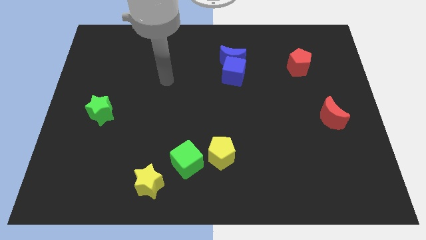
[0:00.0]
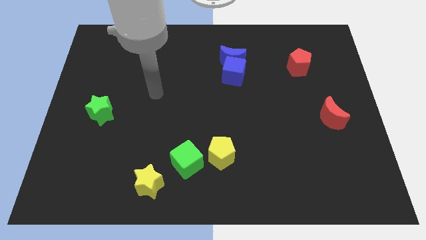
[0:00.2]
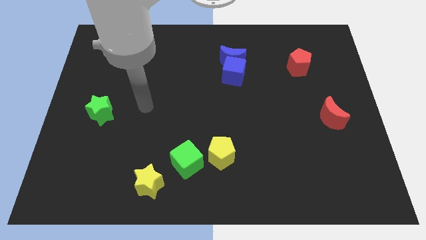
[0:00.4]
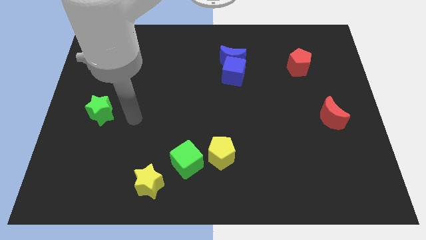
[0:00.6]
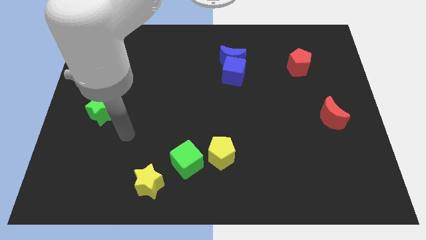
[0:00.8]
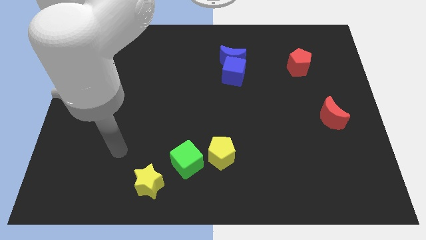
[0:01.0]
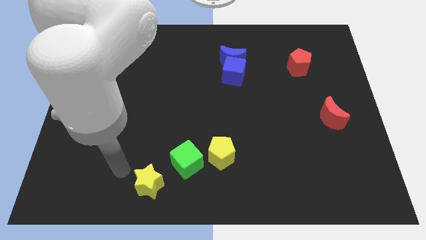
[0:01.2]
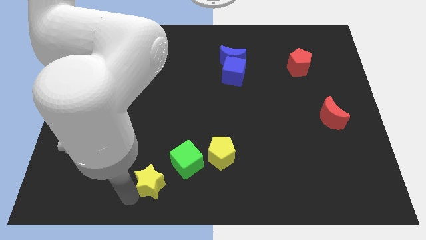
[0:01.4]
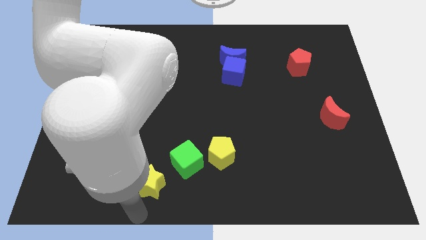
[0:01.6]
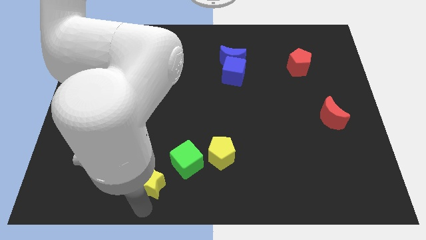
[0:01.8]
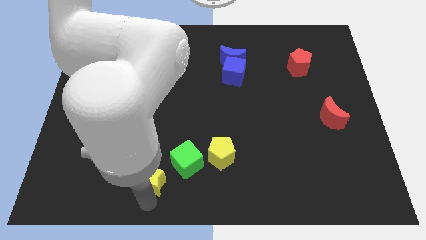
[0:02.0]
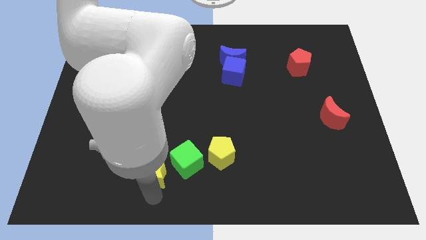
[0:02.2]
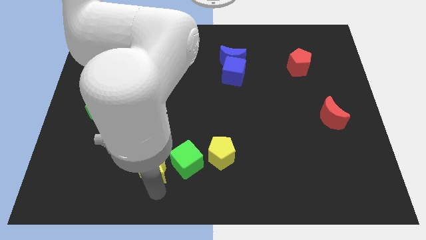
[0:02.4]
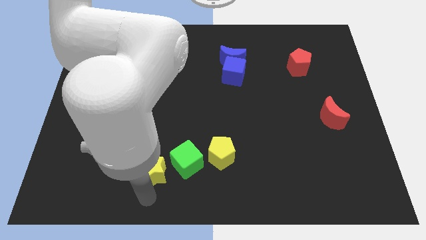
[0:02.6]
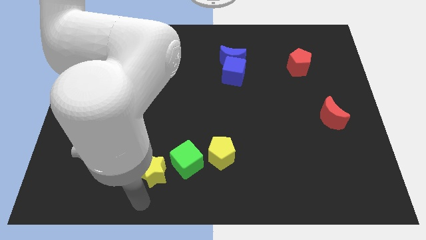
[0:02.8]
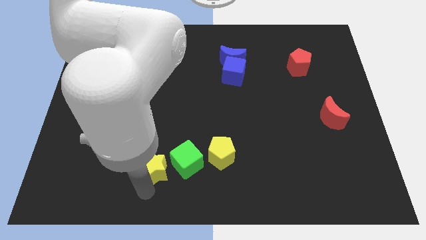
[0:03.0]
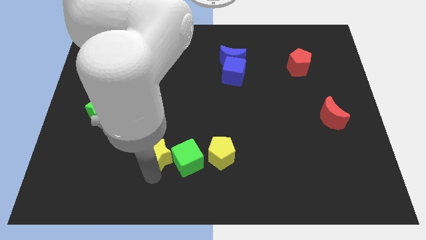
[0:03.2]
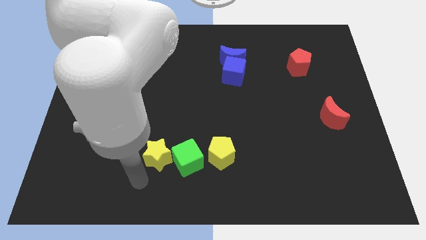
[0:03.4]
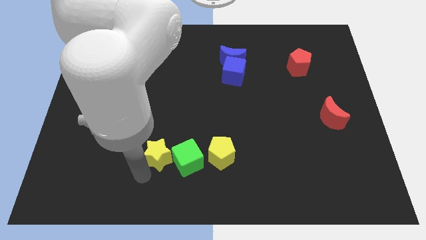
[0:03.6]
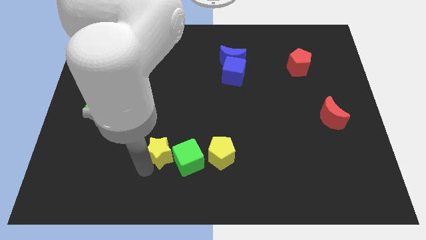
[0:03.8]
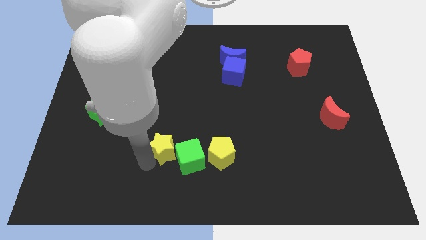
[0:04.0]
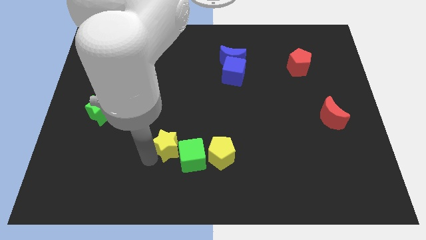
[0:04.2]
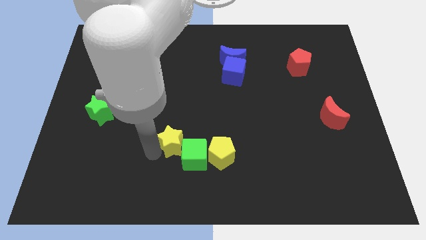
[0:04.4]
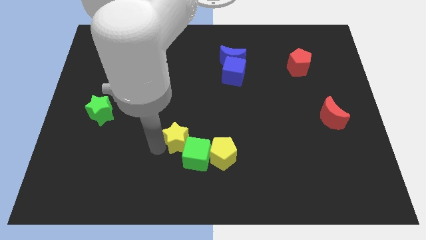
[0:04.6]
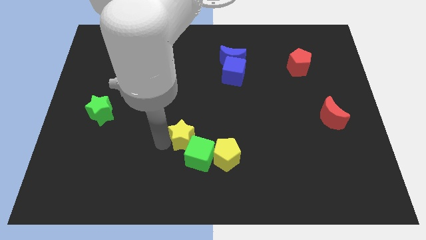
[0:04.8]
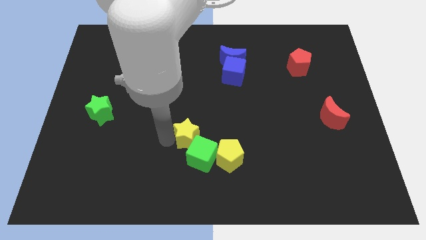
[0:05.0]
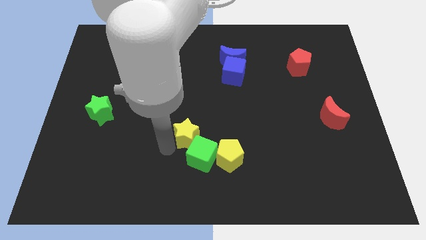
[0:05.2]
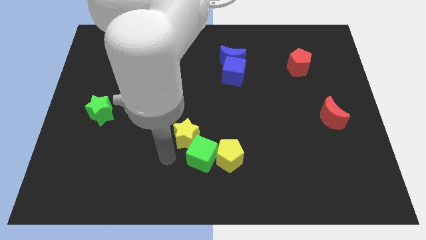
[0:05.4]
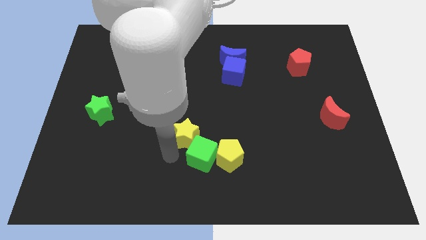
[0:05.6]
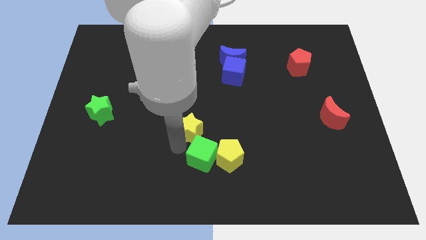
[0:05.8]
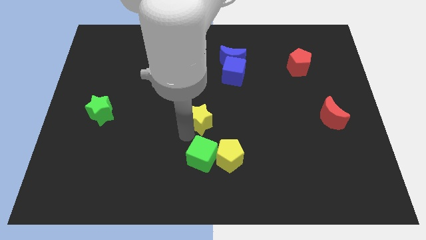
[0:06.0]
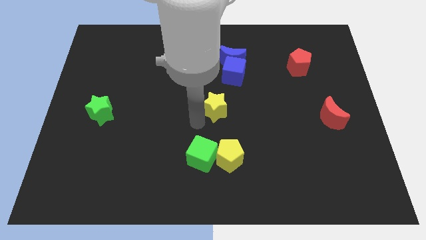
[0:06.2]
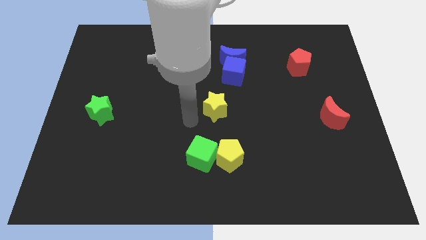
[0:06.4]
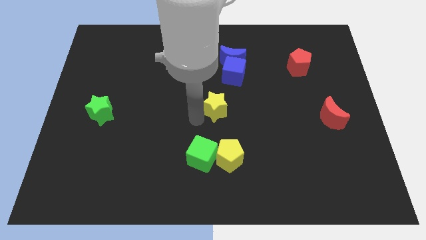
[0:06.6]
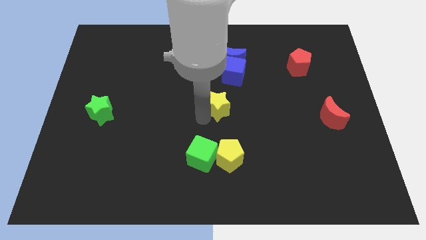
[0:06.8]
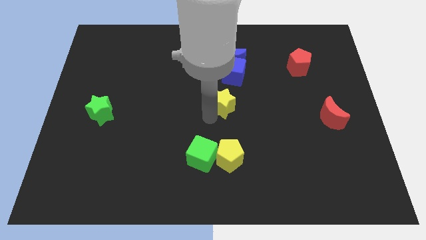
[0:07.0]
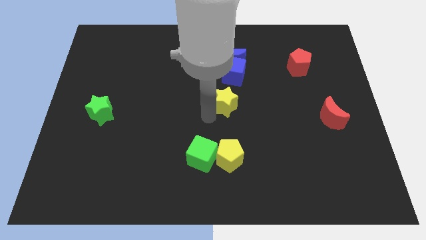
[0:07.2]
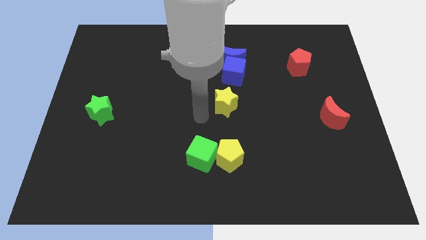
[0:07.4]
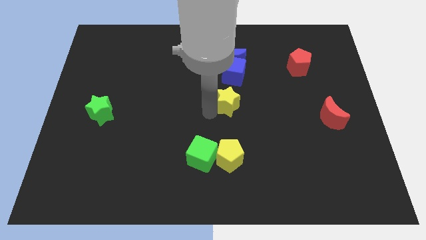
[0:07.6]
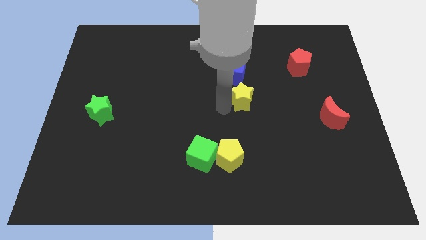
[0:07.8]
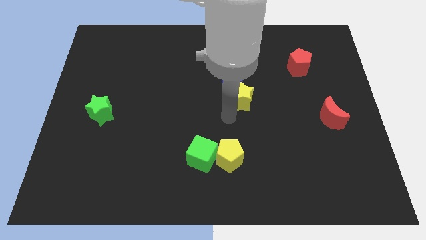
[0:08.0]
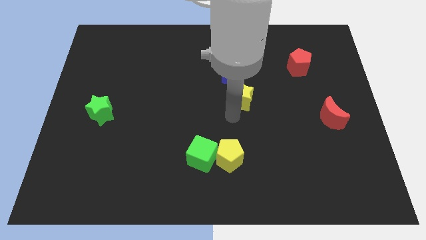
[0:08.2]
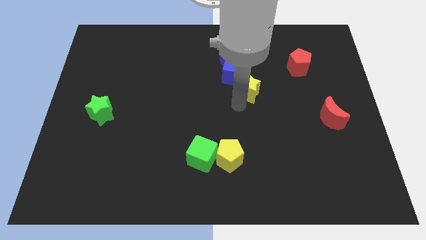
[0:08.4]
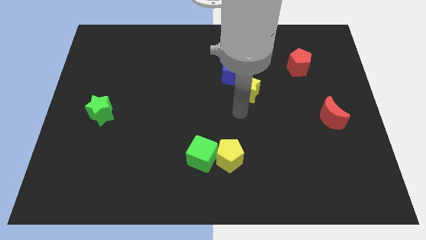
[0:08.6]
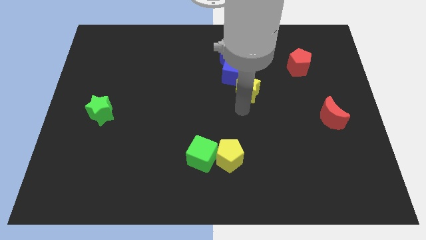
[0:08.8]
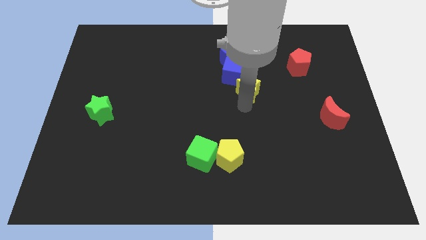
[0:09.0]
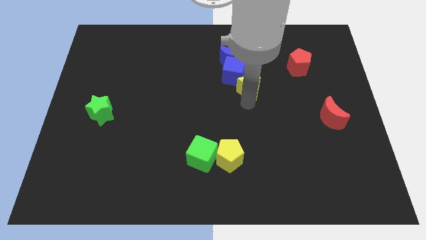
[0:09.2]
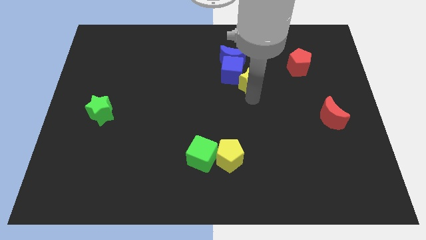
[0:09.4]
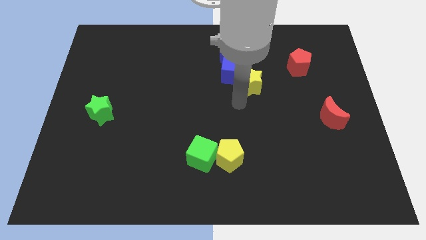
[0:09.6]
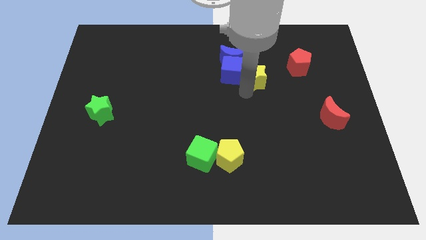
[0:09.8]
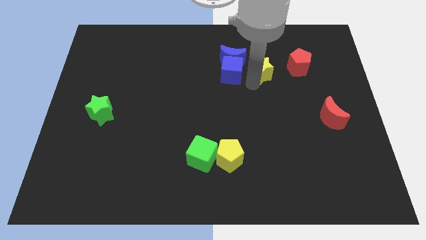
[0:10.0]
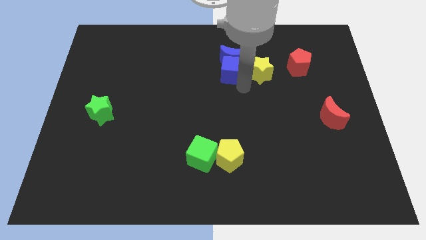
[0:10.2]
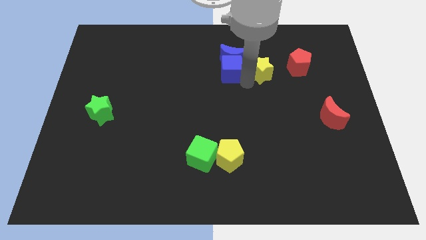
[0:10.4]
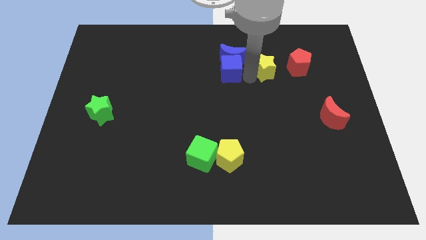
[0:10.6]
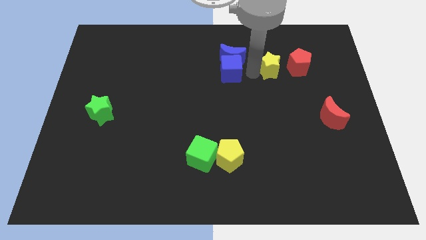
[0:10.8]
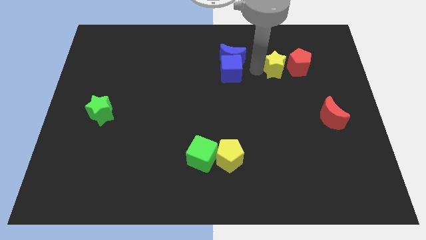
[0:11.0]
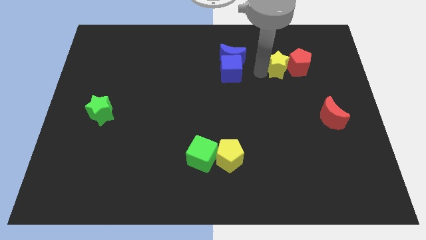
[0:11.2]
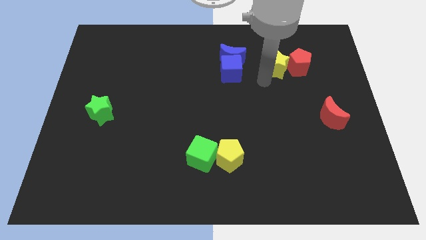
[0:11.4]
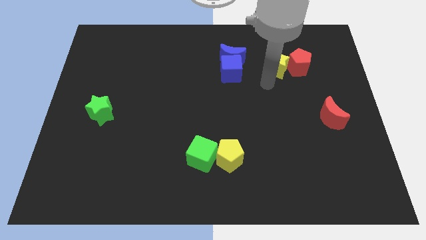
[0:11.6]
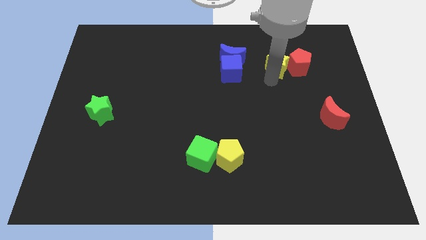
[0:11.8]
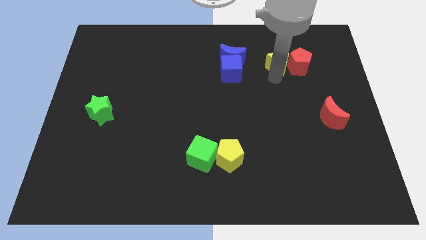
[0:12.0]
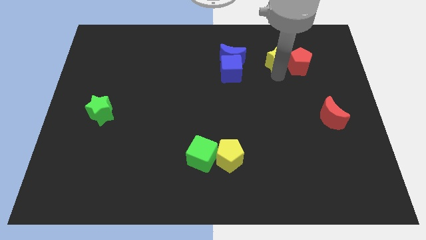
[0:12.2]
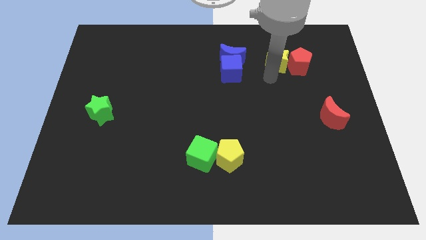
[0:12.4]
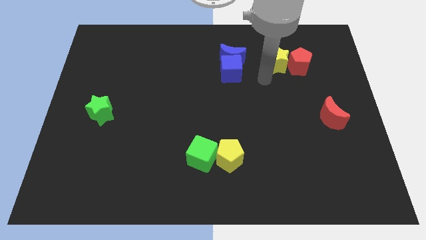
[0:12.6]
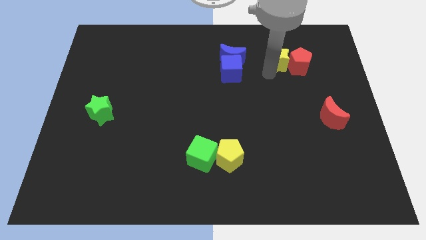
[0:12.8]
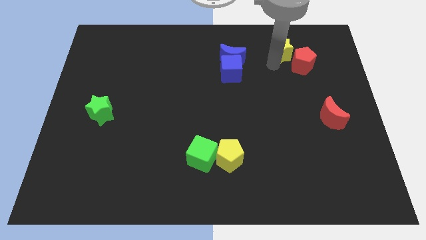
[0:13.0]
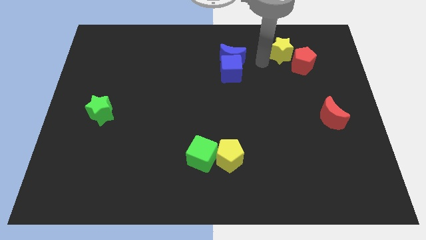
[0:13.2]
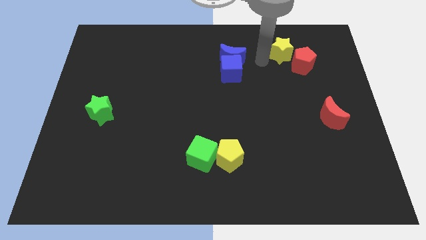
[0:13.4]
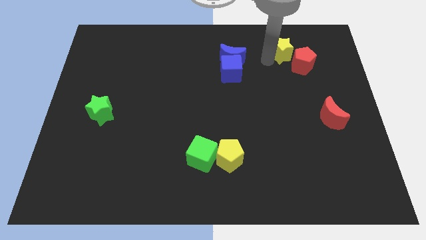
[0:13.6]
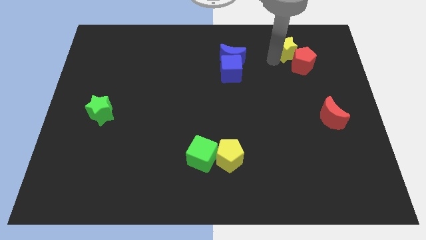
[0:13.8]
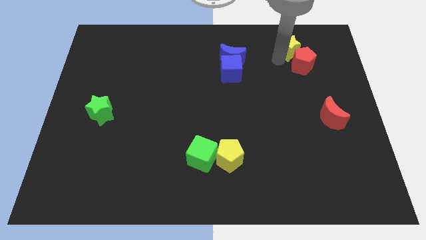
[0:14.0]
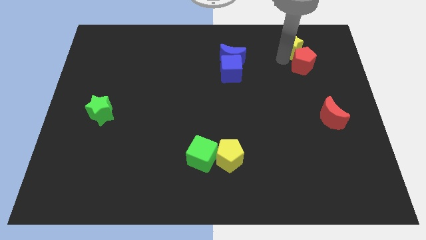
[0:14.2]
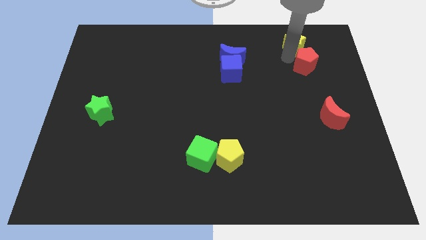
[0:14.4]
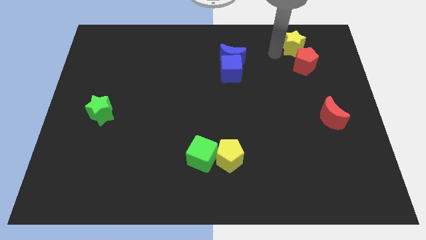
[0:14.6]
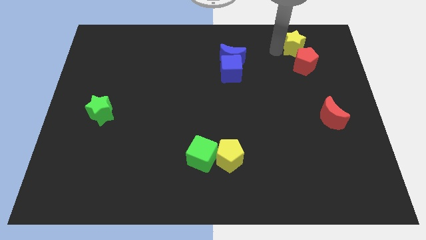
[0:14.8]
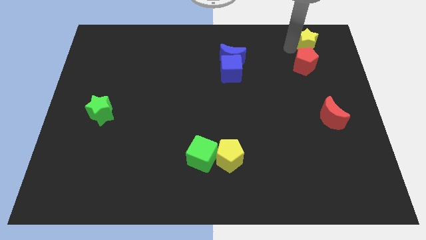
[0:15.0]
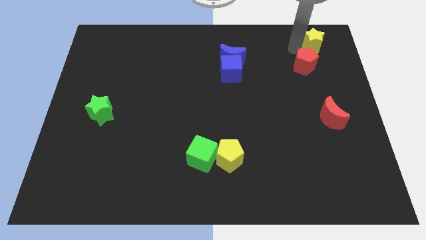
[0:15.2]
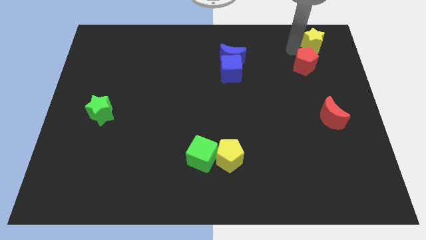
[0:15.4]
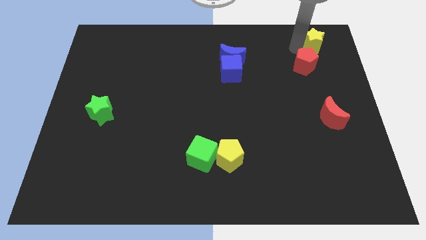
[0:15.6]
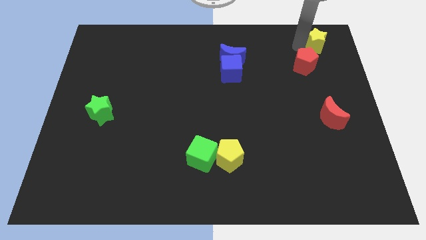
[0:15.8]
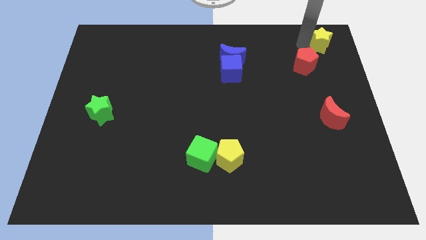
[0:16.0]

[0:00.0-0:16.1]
push the yellow star to the top right
